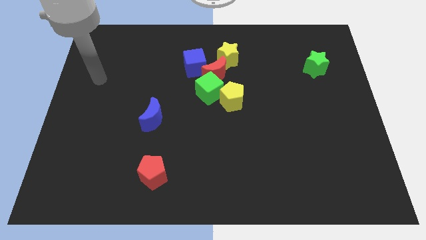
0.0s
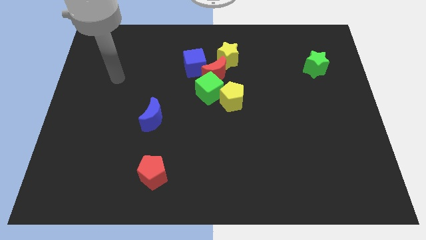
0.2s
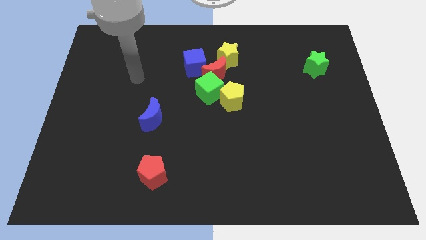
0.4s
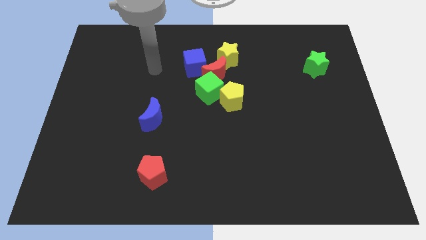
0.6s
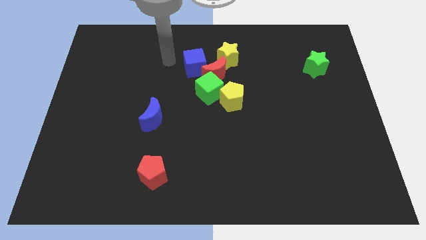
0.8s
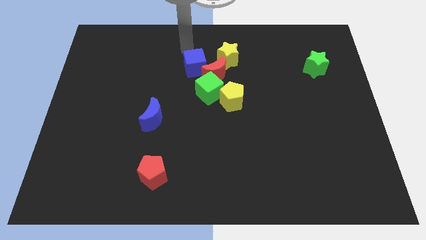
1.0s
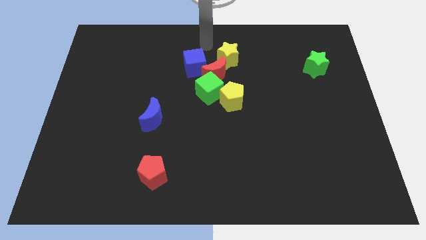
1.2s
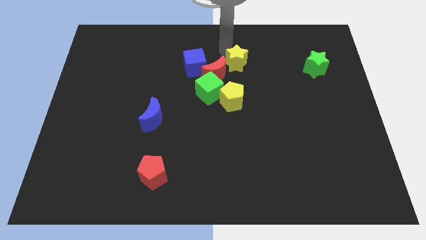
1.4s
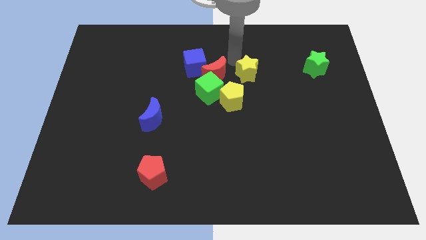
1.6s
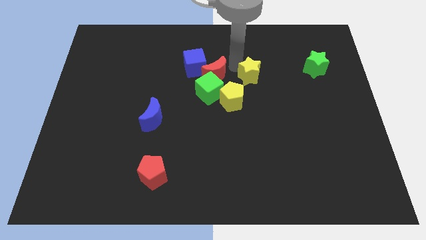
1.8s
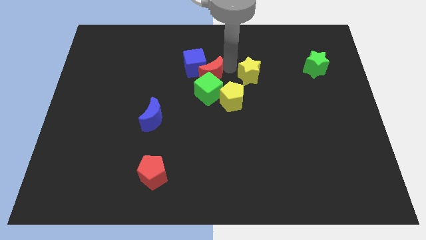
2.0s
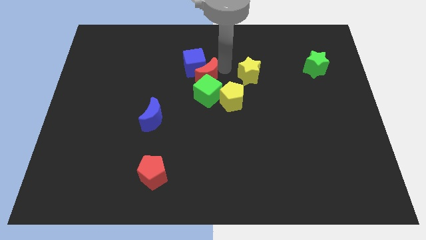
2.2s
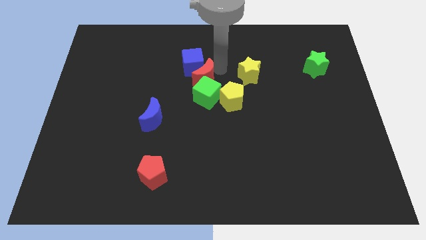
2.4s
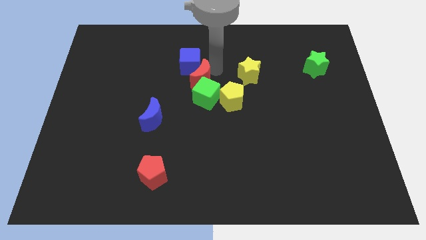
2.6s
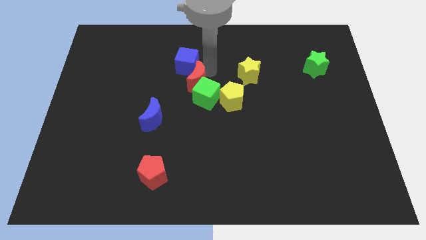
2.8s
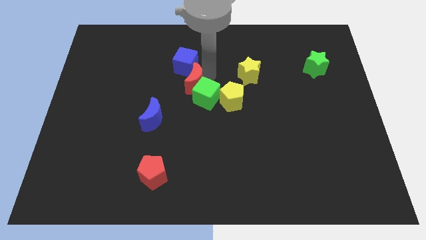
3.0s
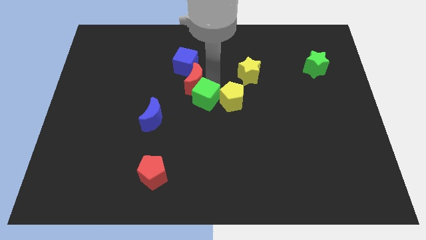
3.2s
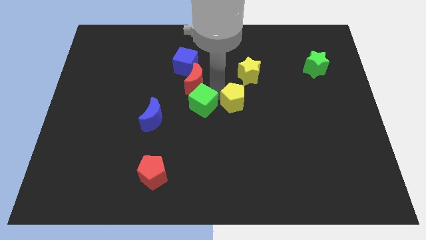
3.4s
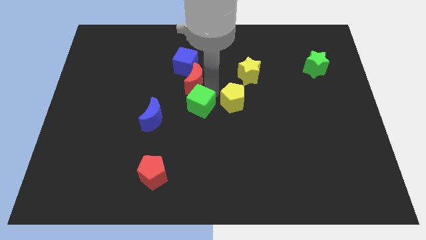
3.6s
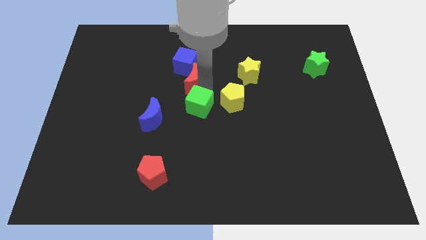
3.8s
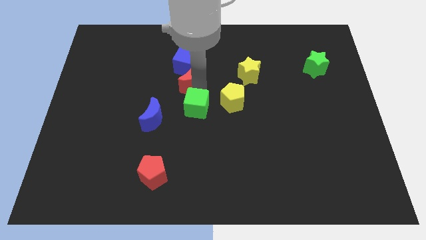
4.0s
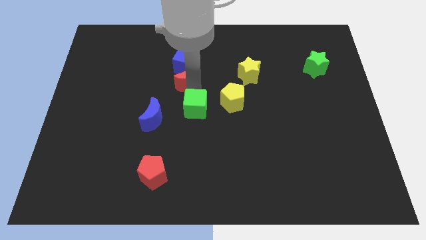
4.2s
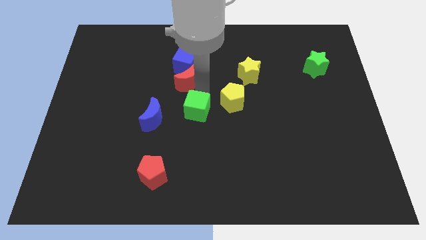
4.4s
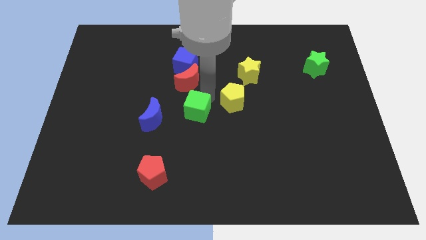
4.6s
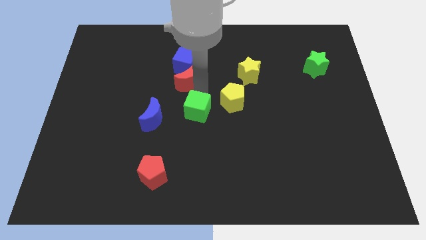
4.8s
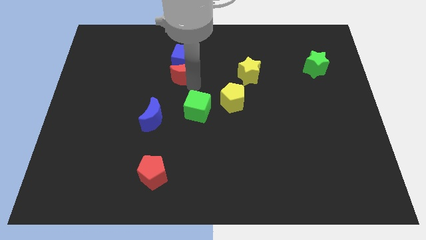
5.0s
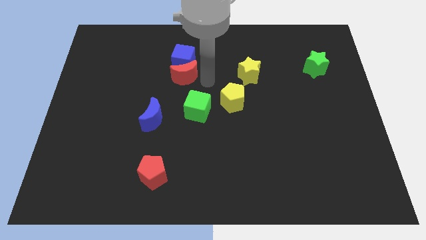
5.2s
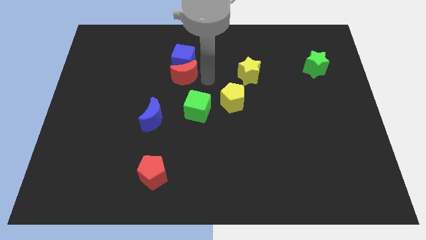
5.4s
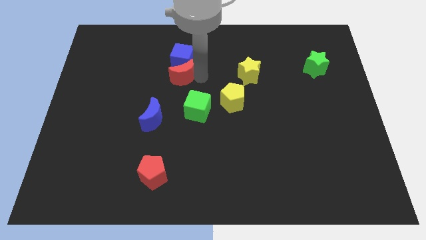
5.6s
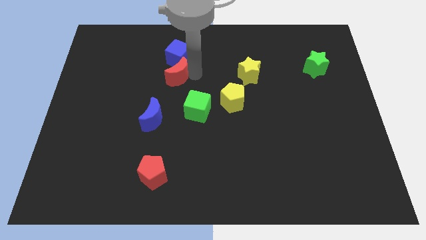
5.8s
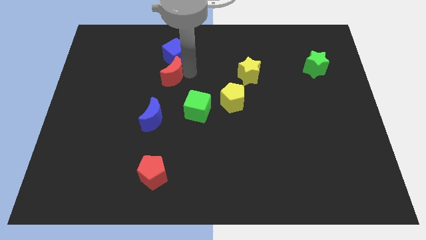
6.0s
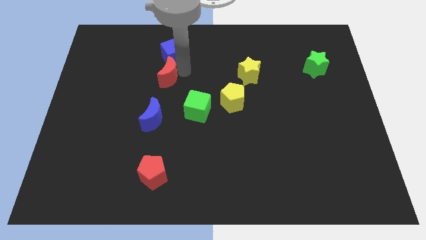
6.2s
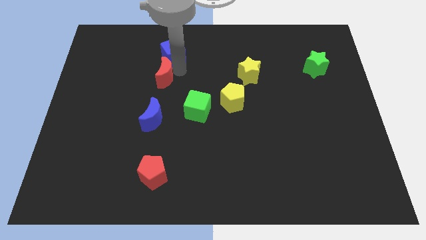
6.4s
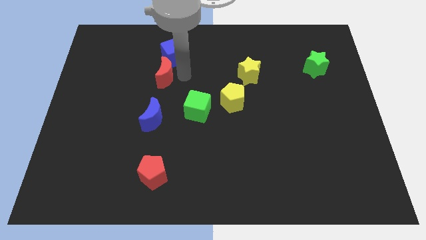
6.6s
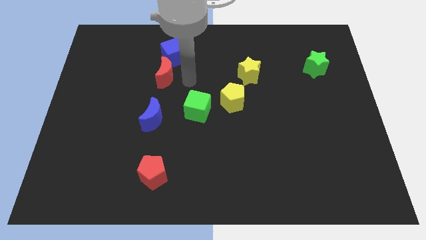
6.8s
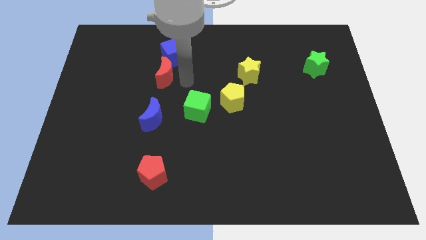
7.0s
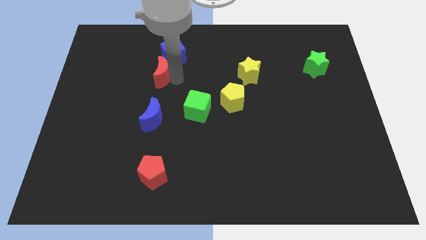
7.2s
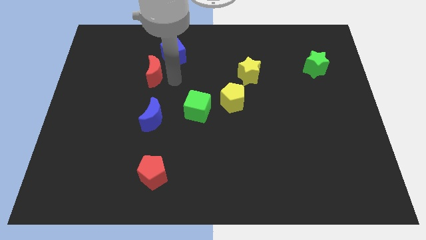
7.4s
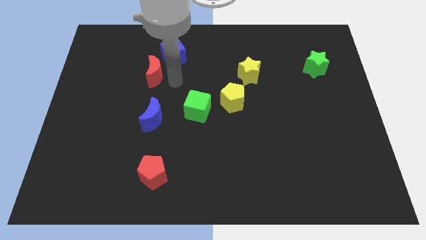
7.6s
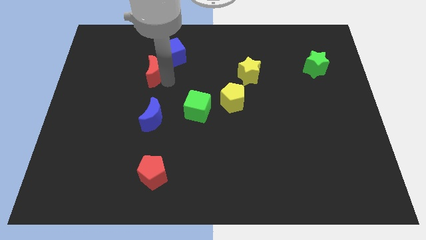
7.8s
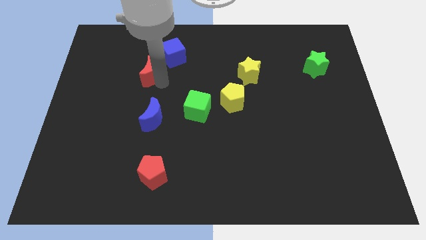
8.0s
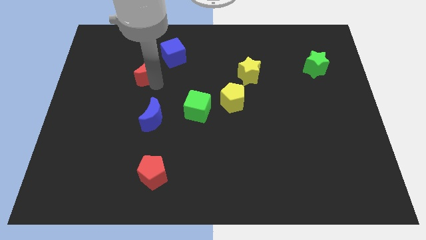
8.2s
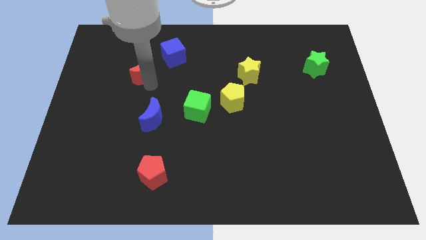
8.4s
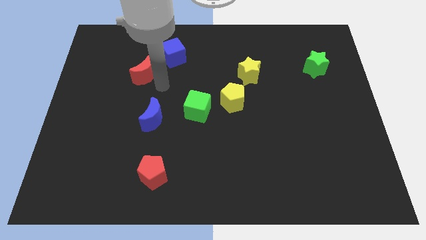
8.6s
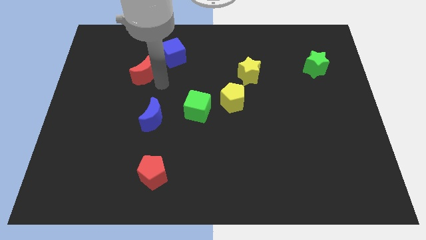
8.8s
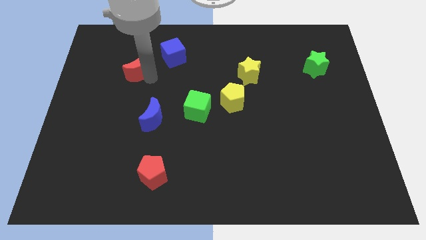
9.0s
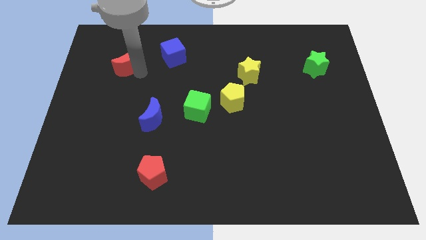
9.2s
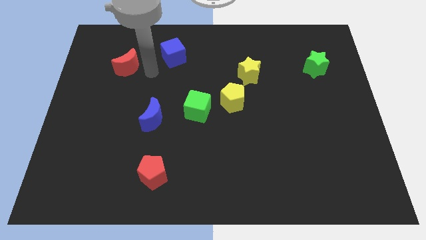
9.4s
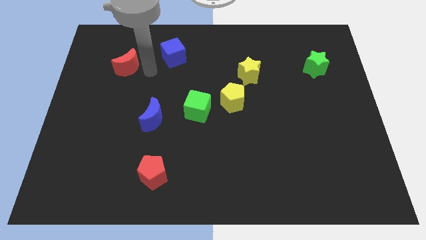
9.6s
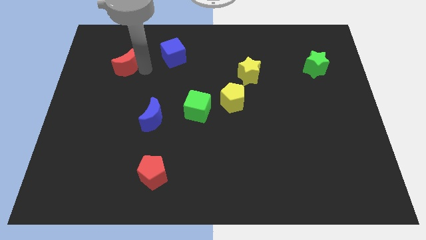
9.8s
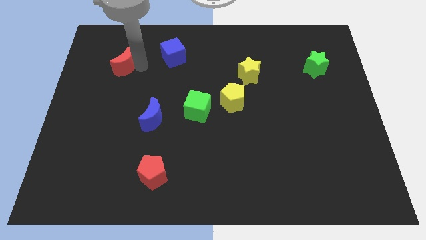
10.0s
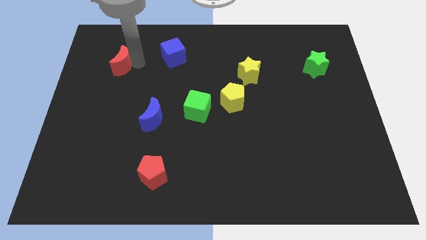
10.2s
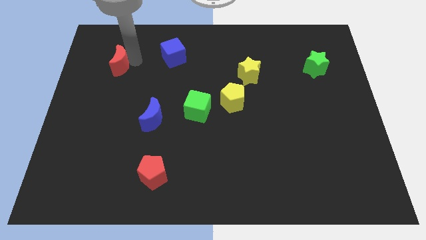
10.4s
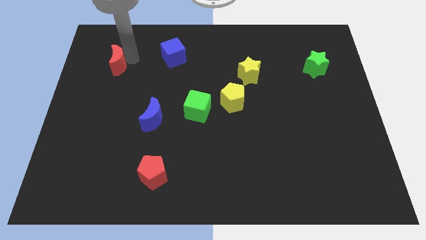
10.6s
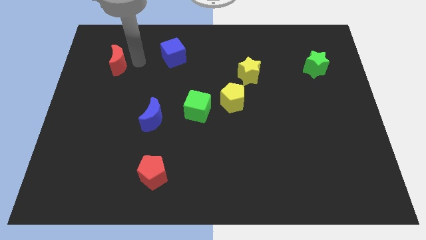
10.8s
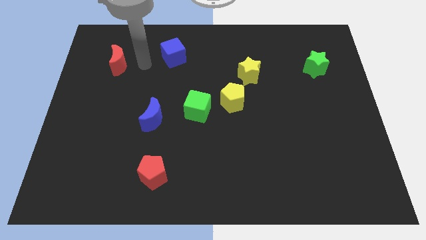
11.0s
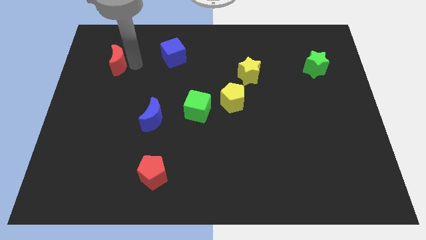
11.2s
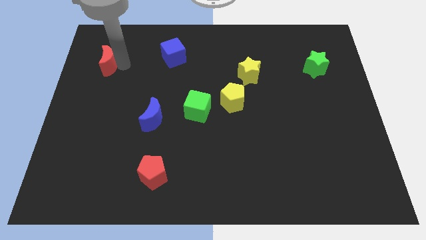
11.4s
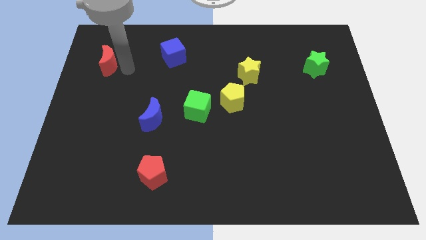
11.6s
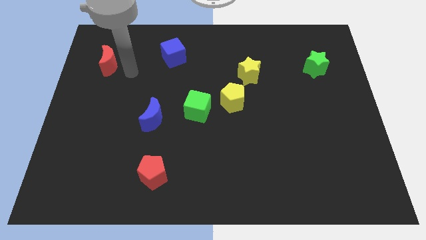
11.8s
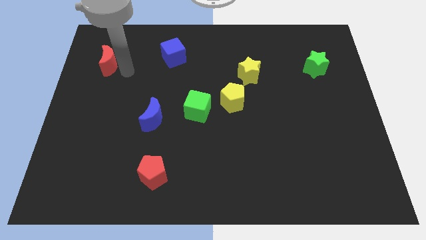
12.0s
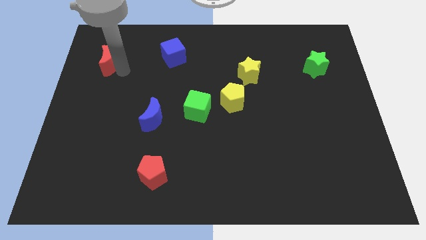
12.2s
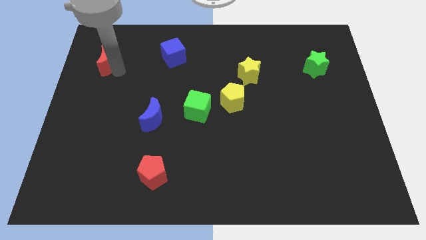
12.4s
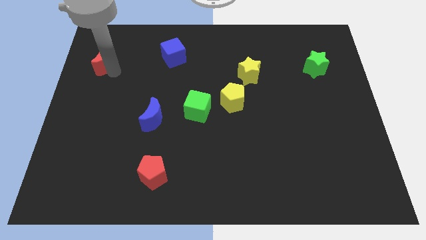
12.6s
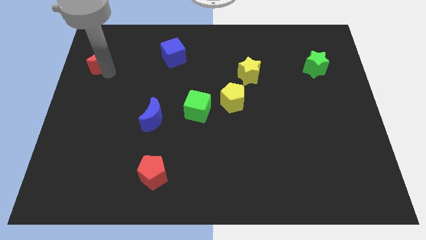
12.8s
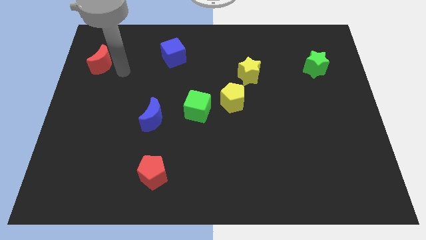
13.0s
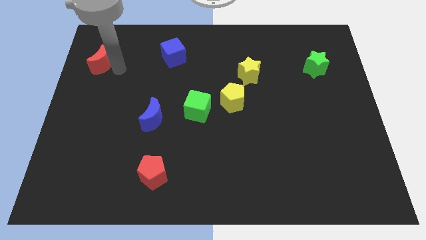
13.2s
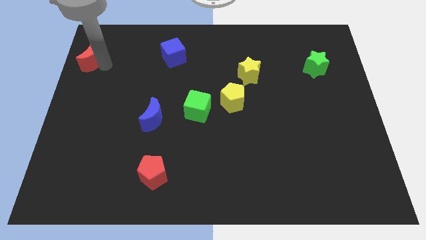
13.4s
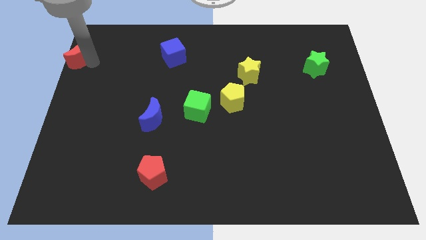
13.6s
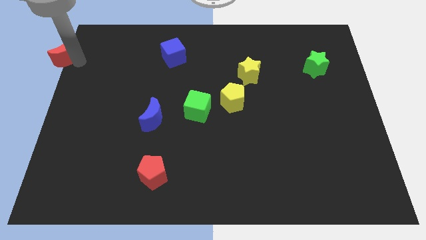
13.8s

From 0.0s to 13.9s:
push the red moon to the upper left corner
